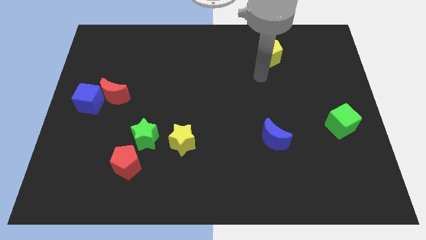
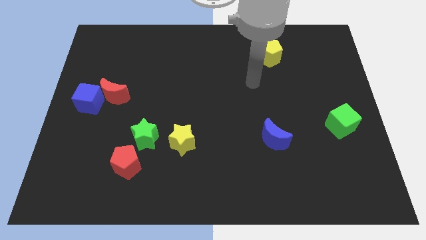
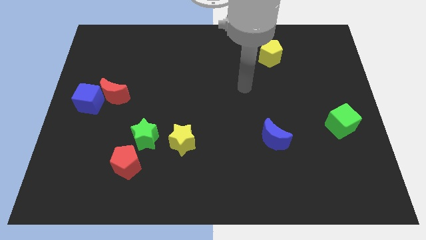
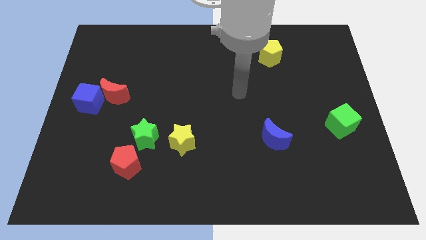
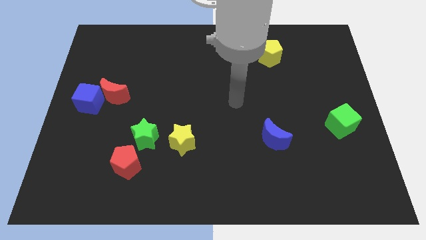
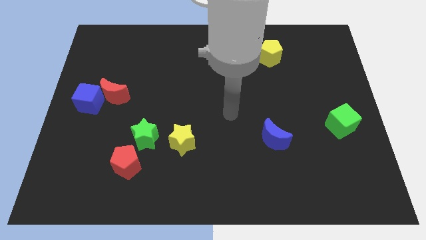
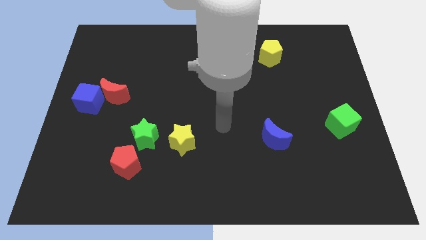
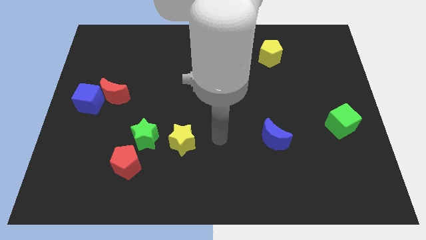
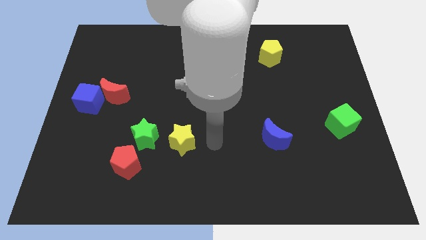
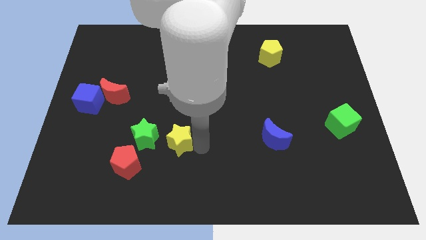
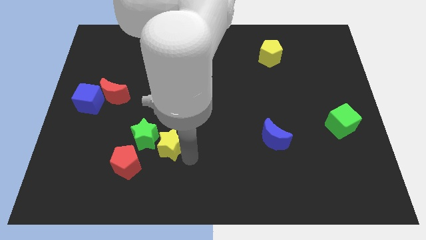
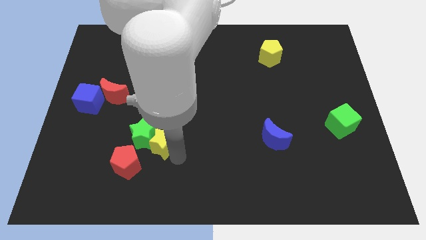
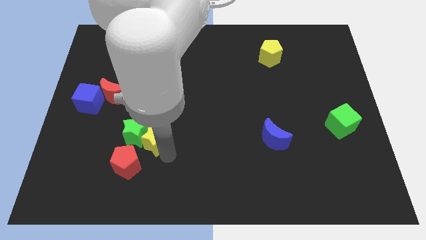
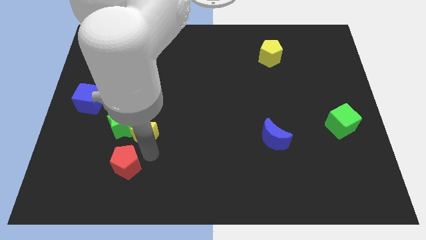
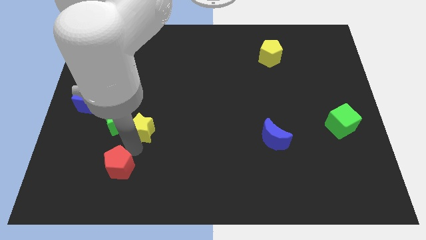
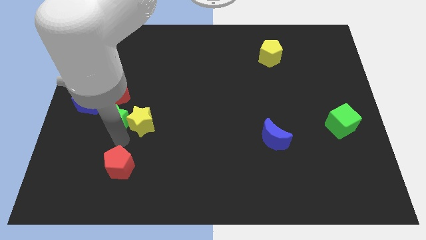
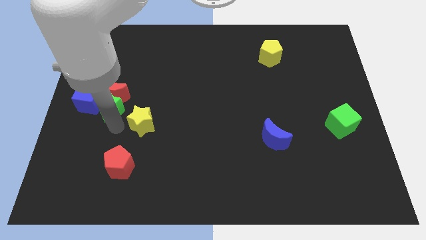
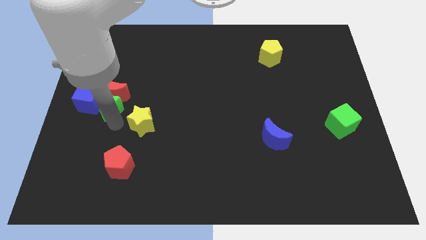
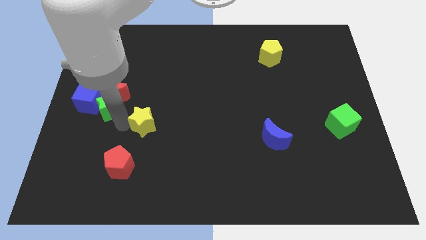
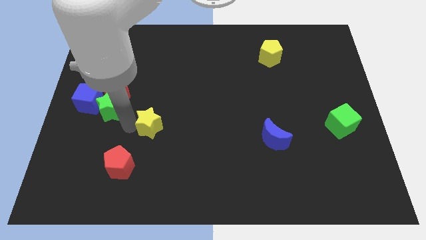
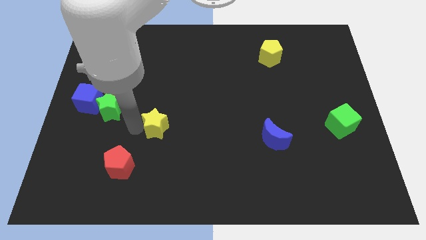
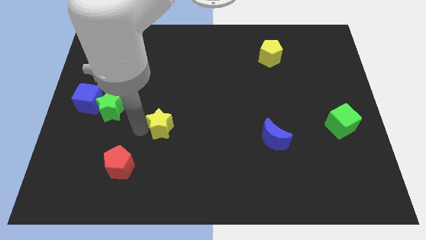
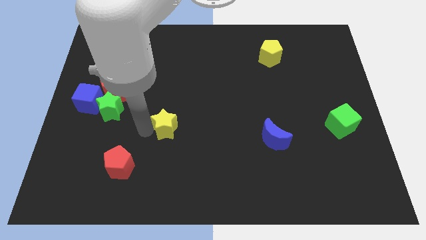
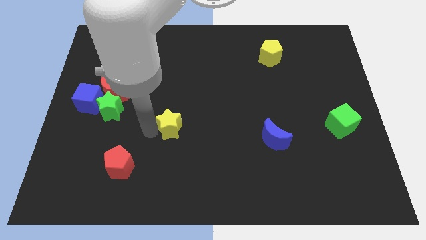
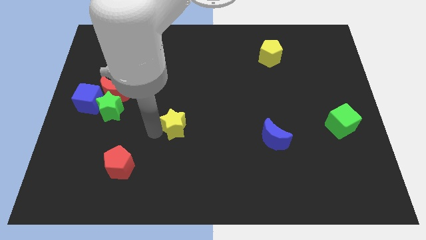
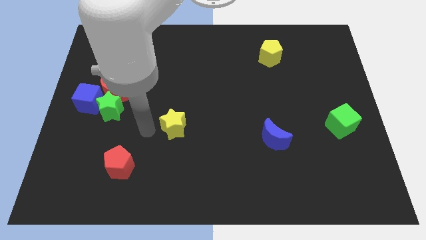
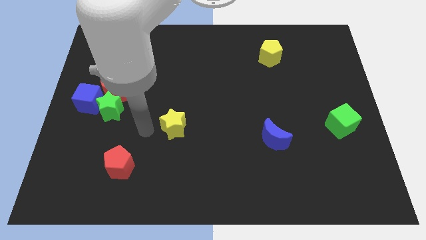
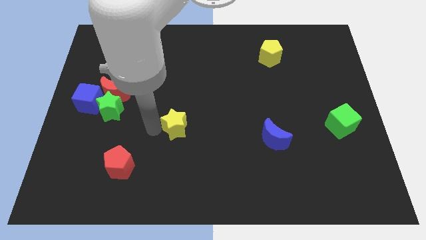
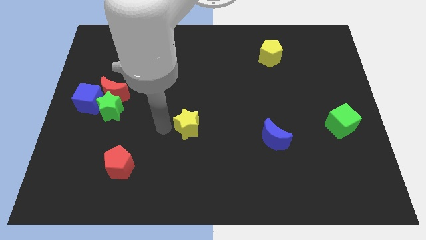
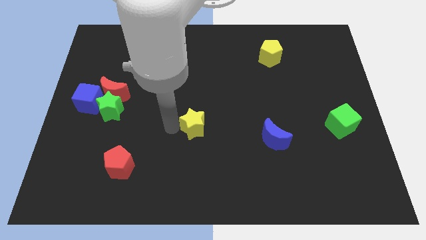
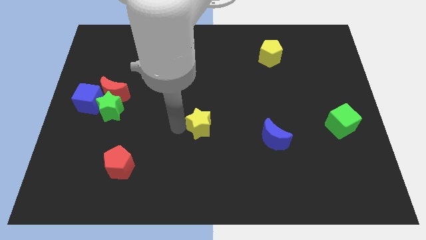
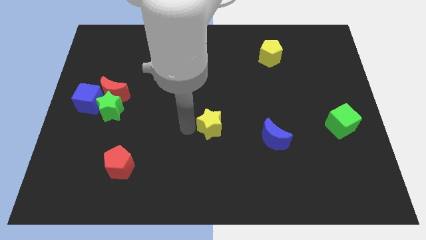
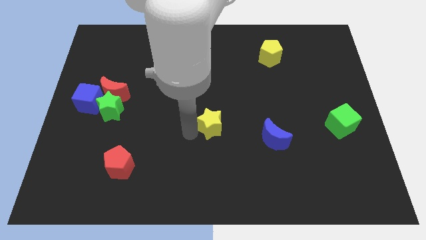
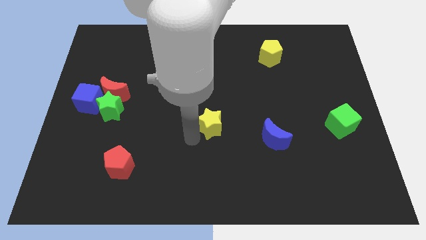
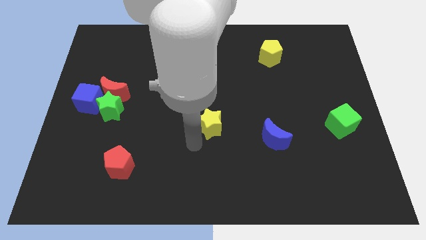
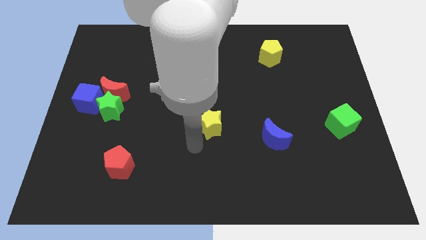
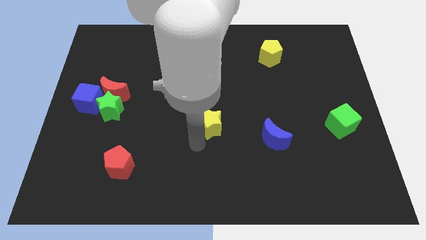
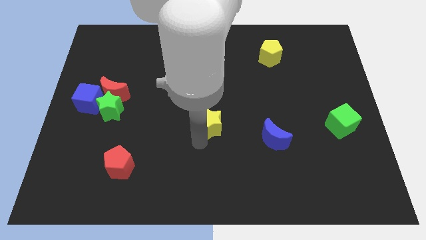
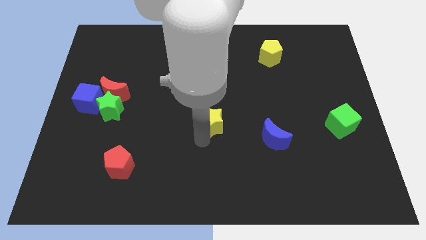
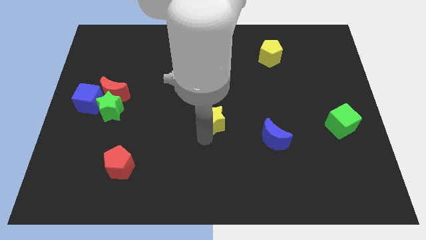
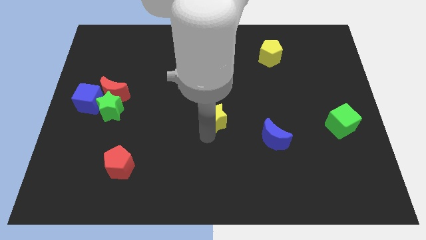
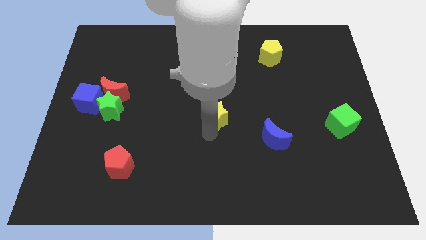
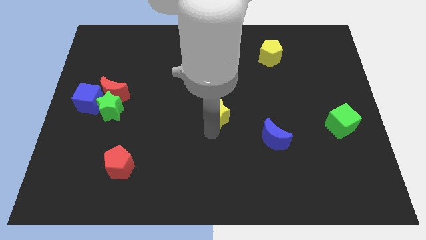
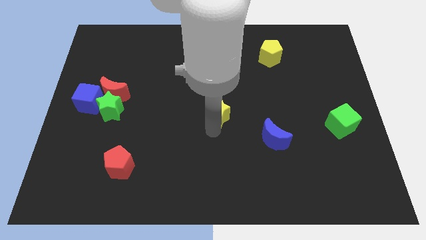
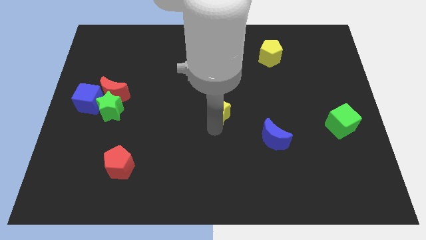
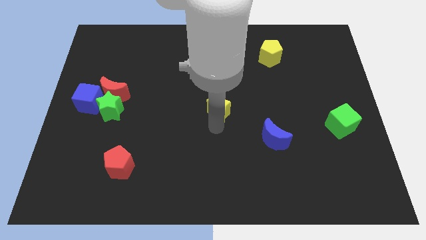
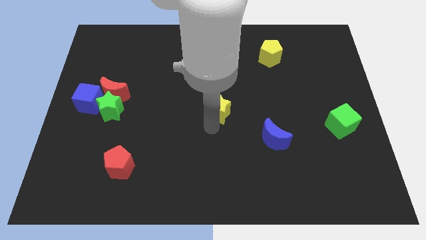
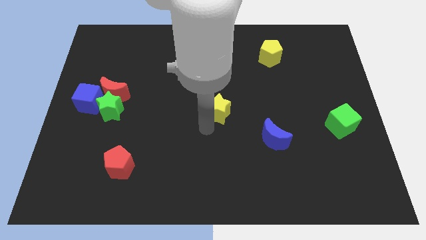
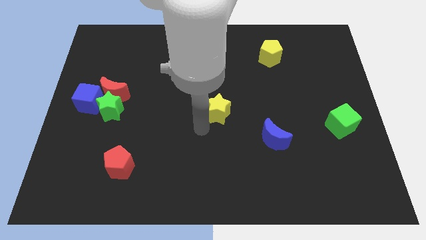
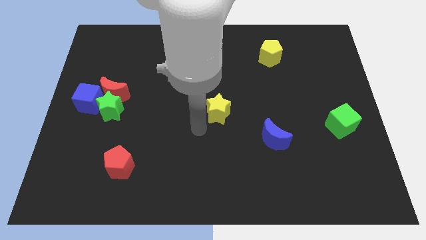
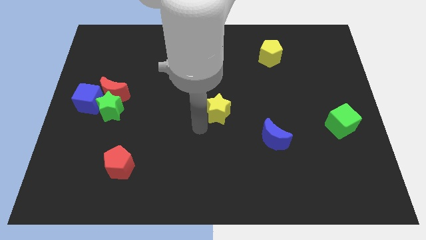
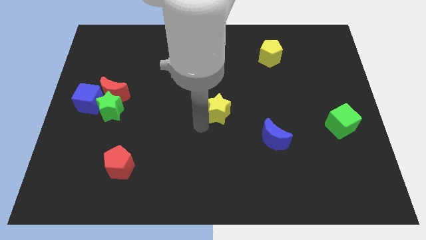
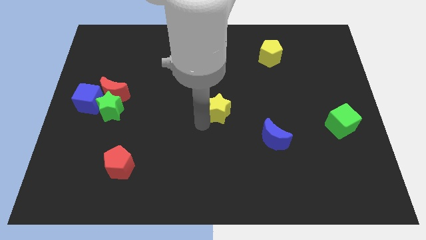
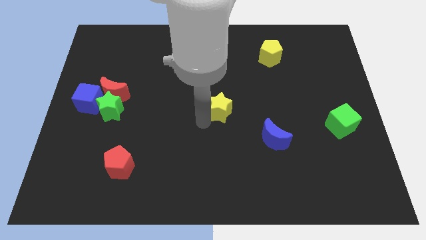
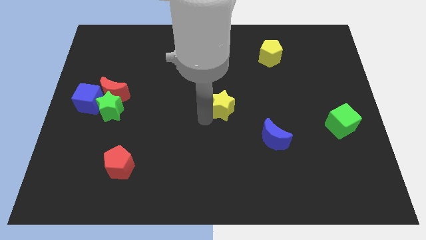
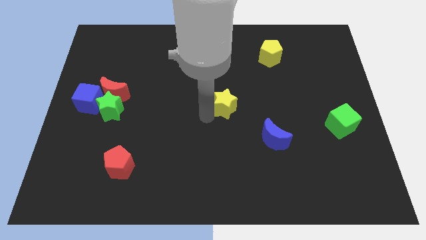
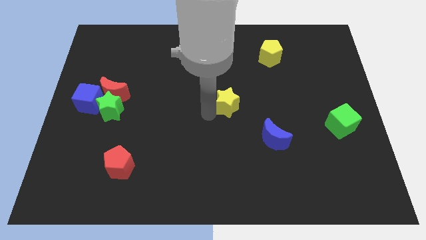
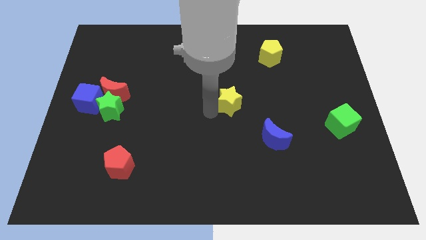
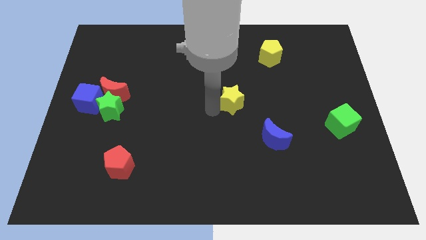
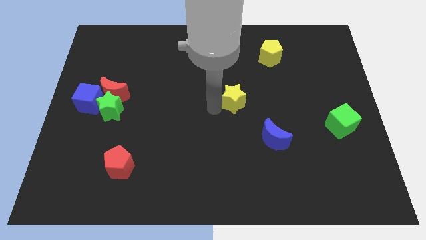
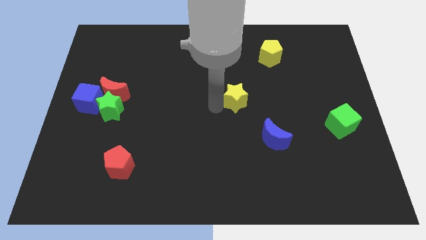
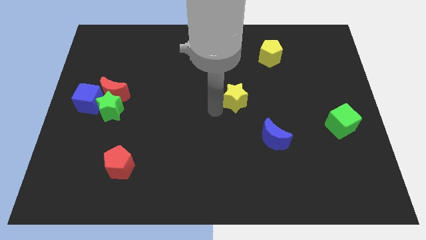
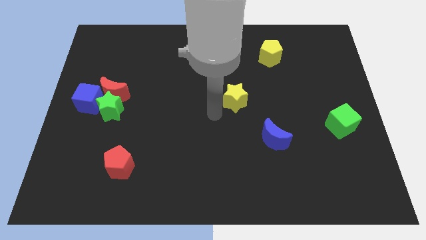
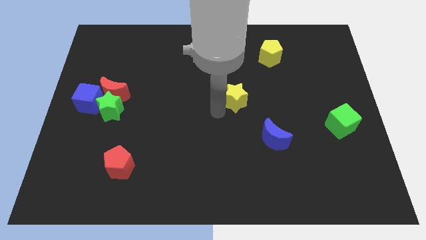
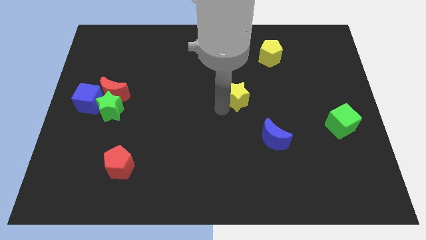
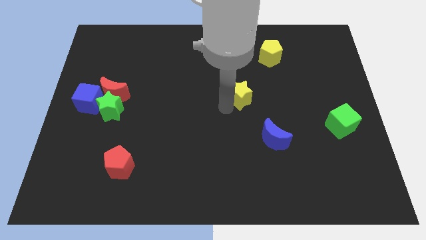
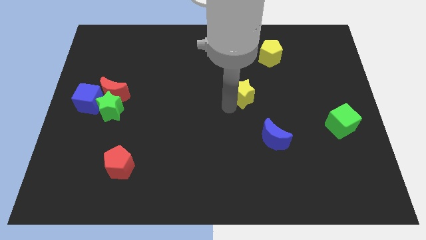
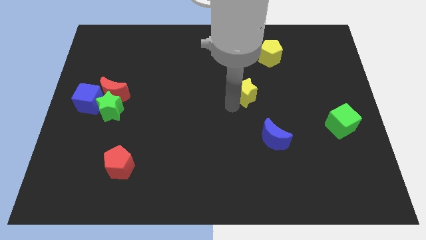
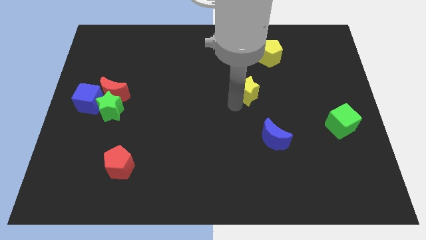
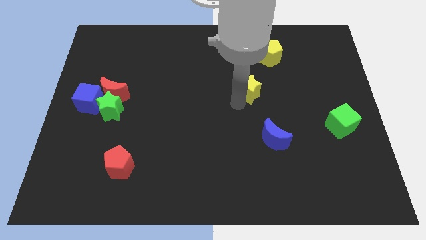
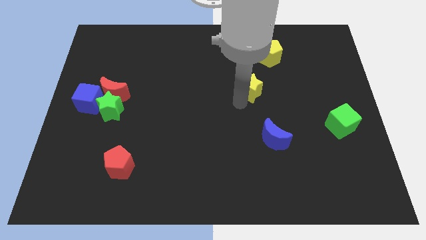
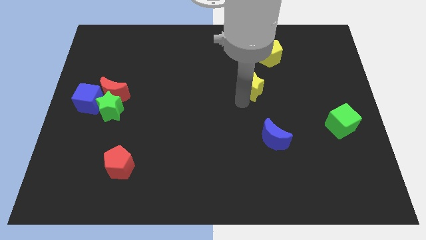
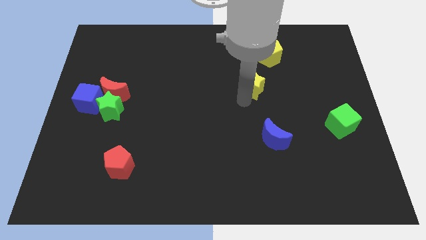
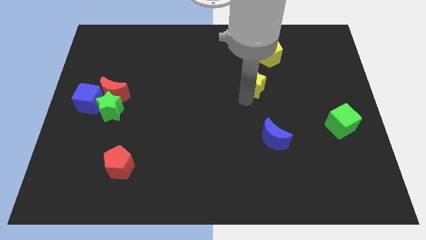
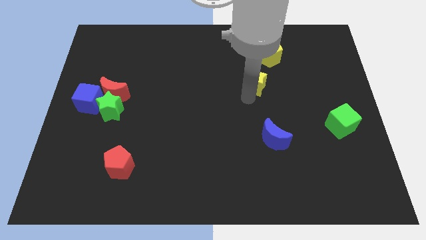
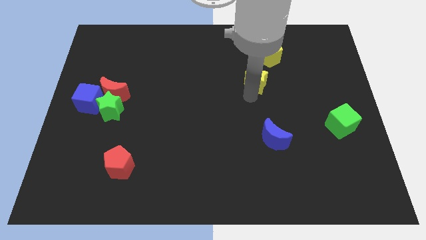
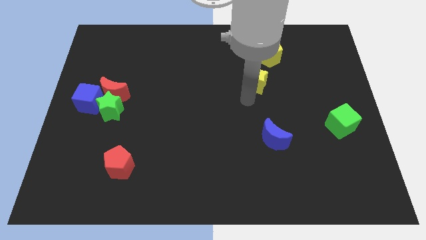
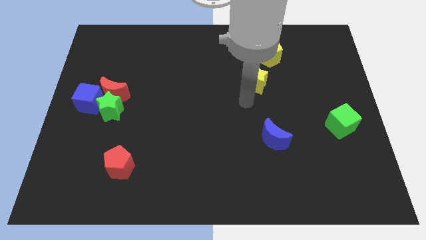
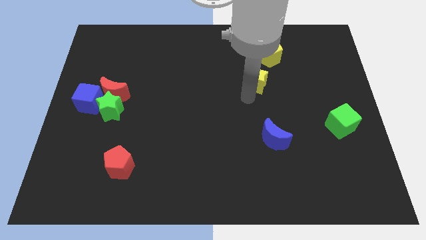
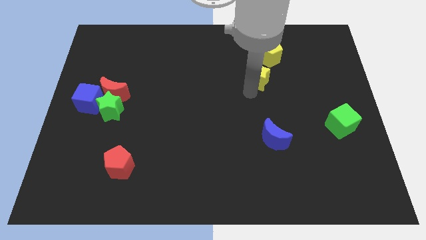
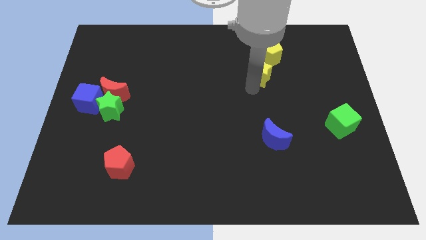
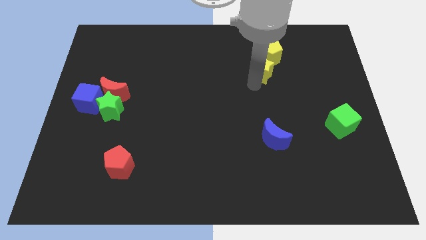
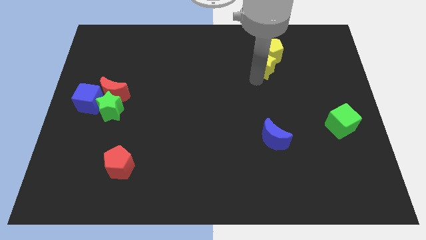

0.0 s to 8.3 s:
slide the yellow star next to the yellow pentagon
